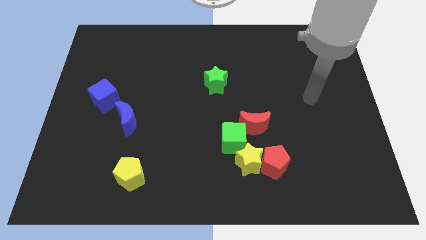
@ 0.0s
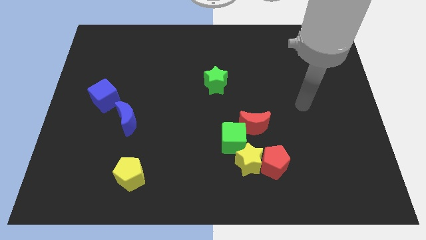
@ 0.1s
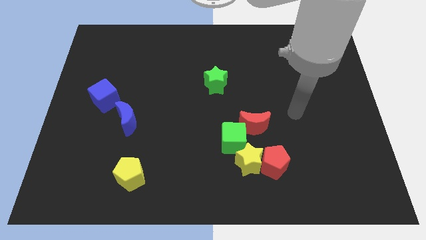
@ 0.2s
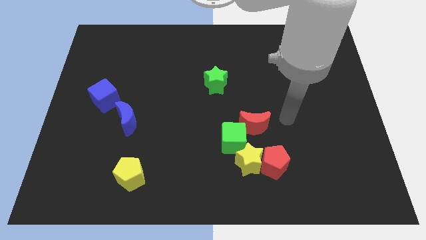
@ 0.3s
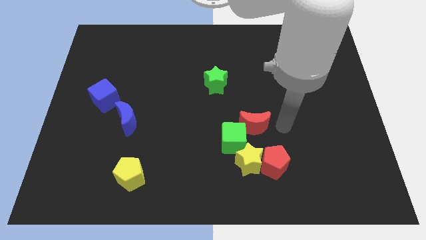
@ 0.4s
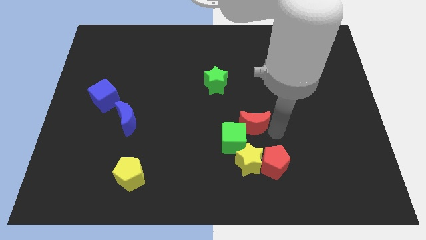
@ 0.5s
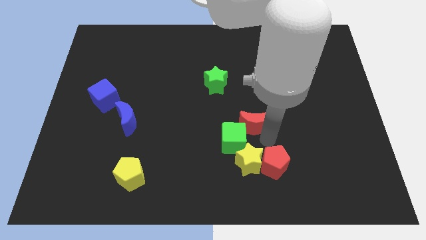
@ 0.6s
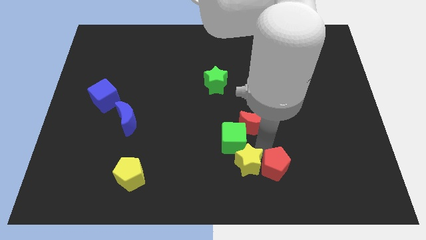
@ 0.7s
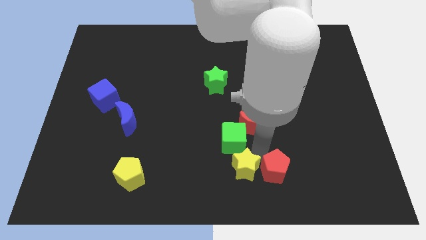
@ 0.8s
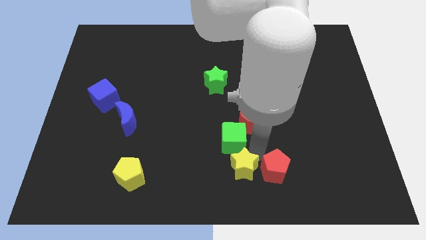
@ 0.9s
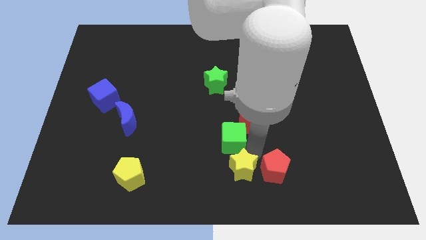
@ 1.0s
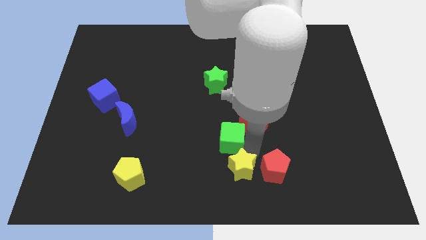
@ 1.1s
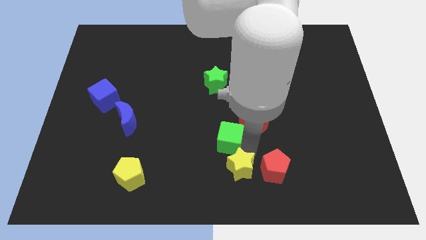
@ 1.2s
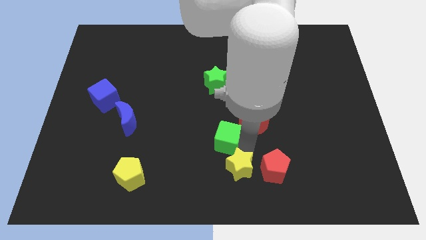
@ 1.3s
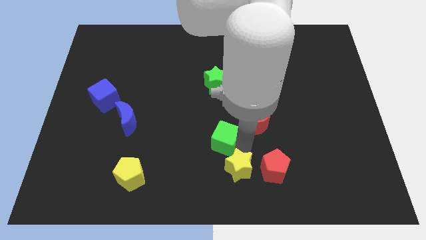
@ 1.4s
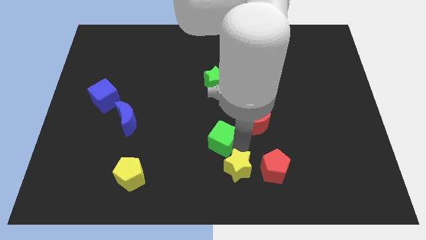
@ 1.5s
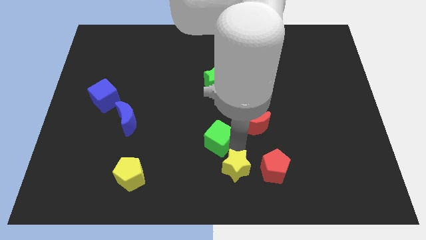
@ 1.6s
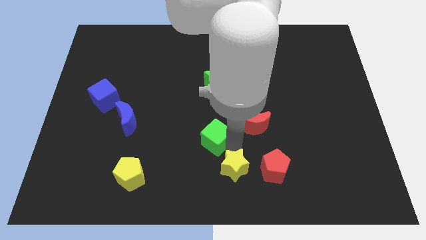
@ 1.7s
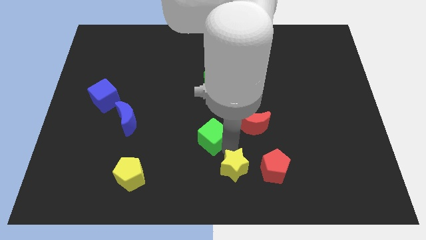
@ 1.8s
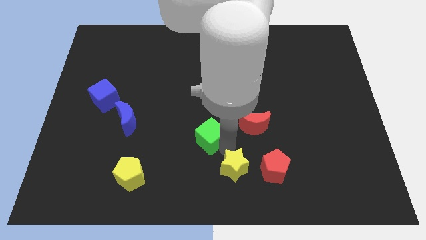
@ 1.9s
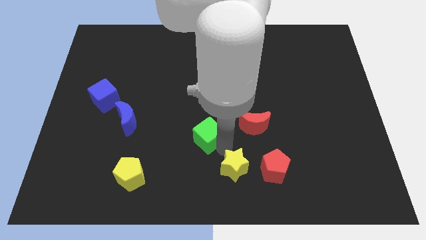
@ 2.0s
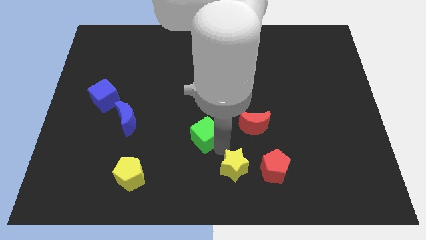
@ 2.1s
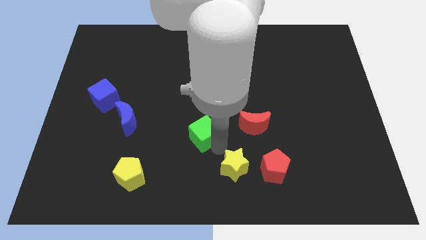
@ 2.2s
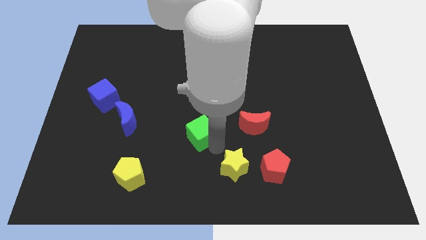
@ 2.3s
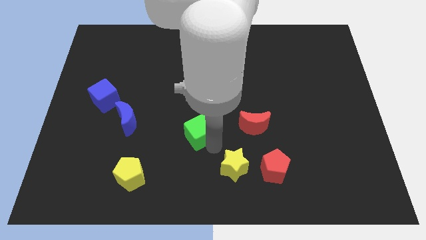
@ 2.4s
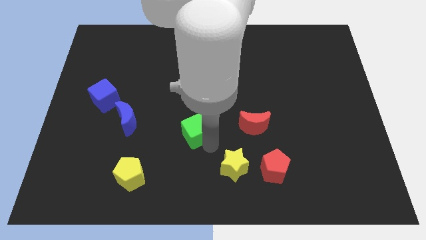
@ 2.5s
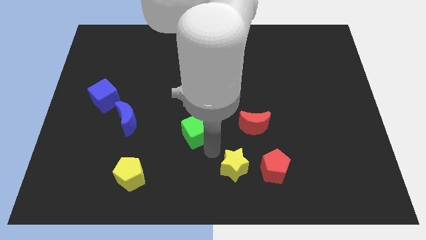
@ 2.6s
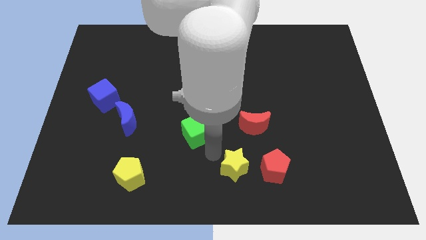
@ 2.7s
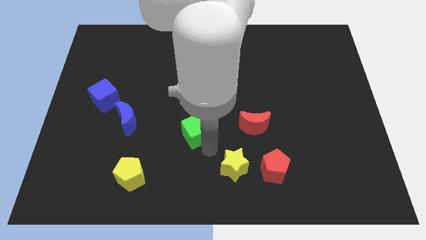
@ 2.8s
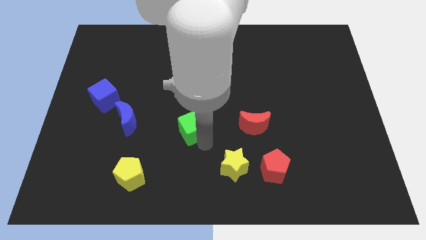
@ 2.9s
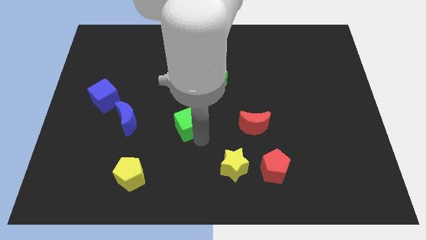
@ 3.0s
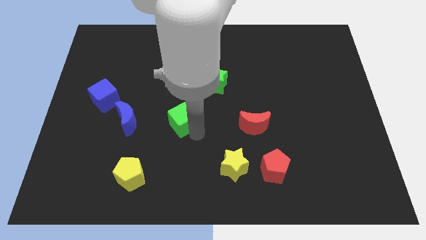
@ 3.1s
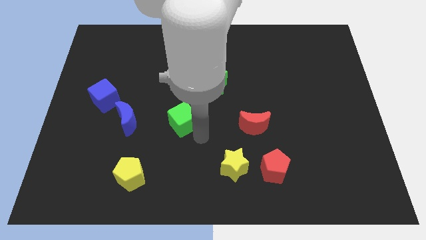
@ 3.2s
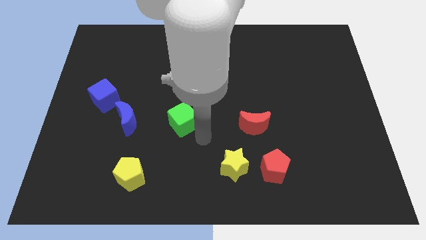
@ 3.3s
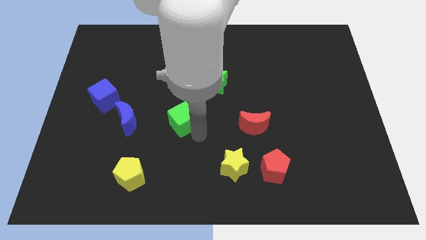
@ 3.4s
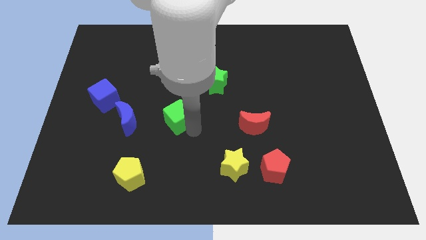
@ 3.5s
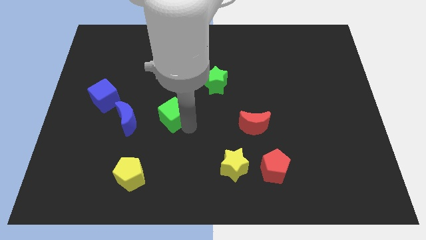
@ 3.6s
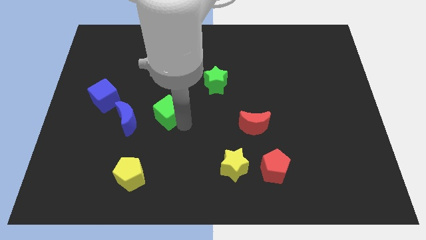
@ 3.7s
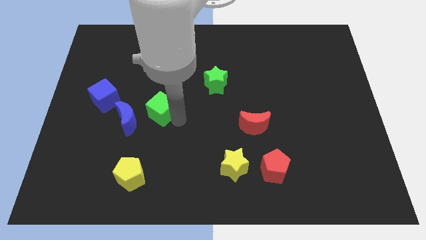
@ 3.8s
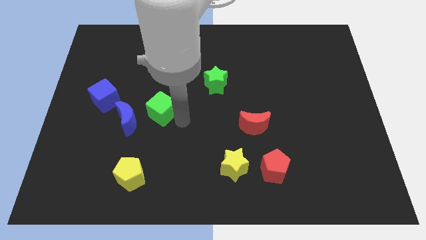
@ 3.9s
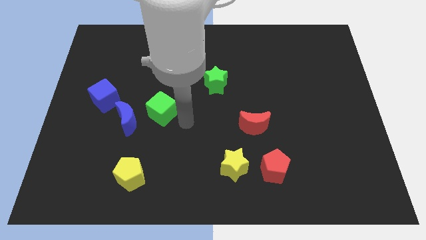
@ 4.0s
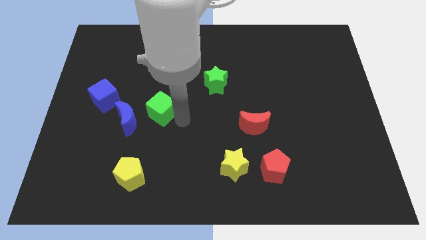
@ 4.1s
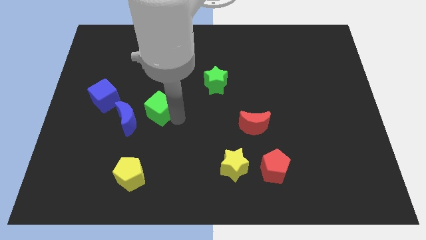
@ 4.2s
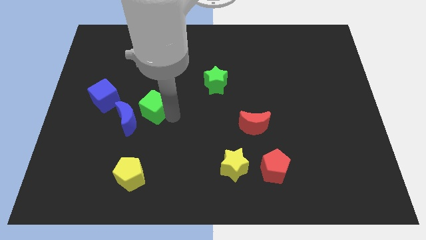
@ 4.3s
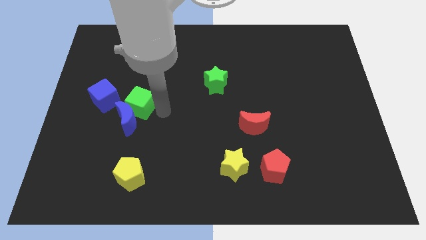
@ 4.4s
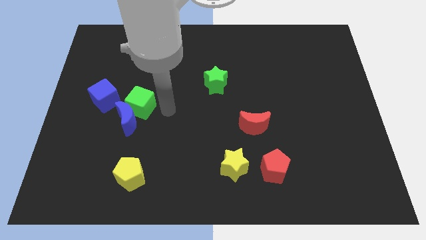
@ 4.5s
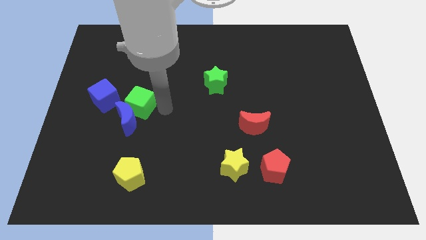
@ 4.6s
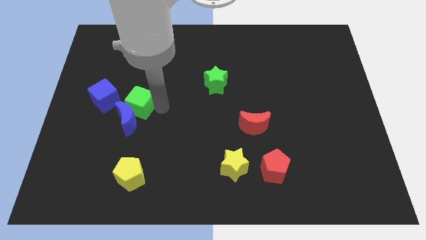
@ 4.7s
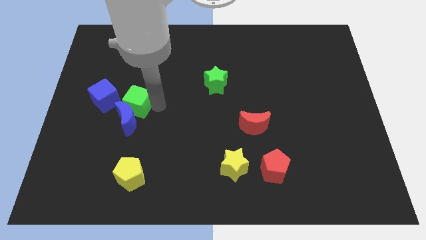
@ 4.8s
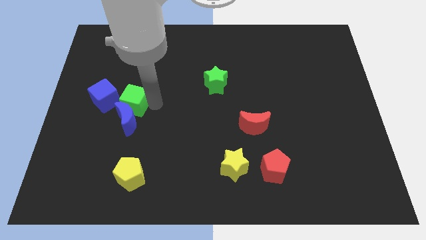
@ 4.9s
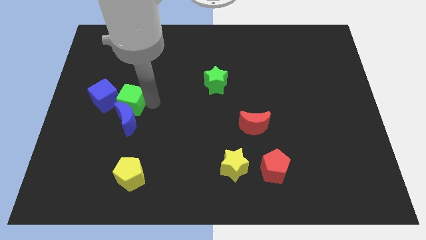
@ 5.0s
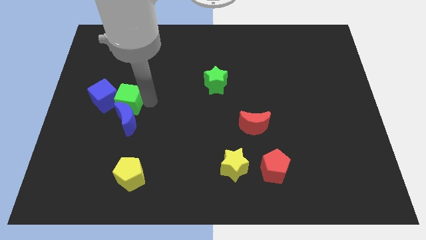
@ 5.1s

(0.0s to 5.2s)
slide the green cube to the blue cube

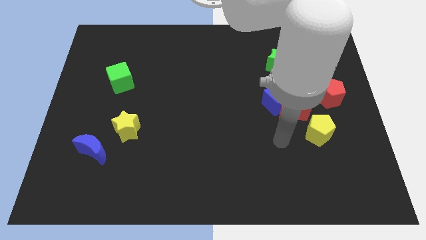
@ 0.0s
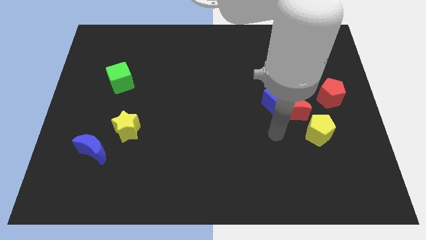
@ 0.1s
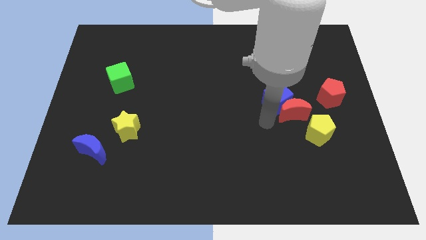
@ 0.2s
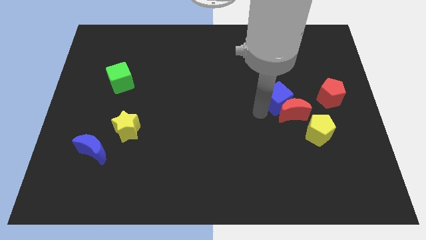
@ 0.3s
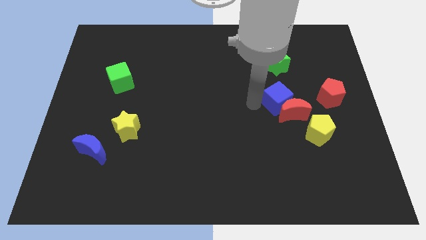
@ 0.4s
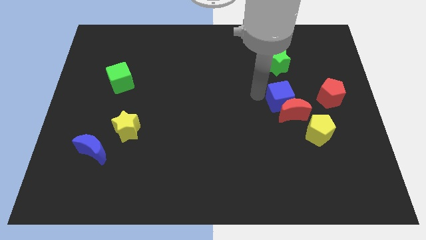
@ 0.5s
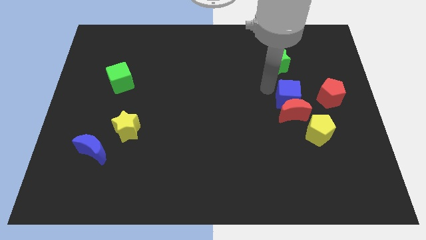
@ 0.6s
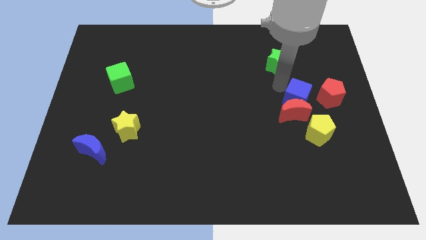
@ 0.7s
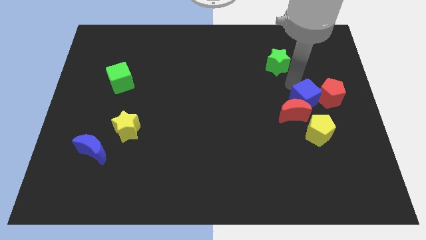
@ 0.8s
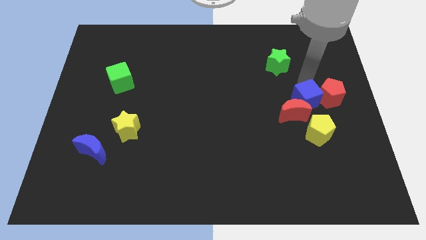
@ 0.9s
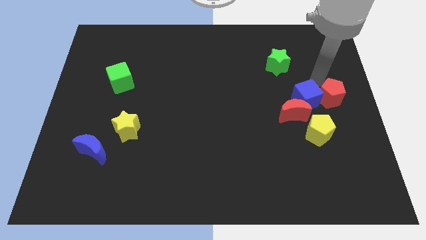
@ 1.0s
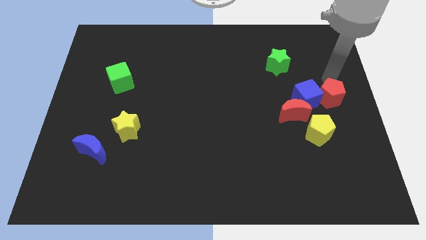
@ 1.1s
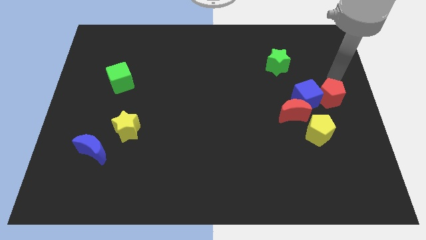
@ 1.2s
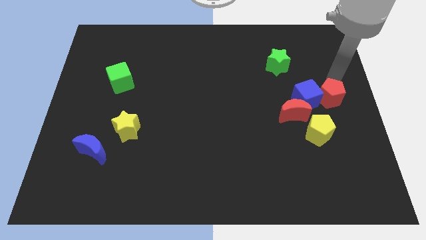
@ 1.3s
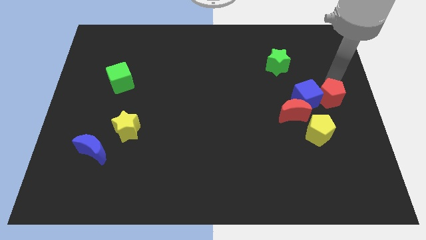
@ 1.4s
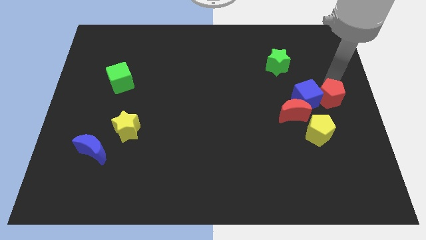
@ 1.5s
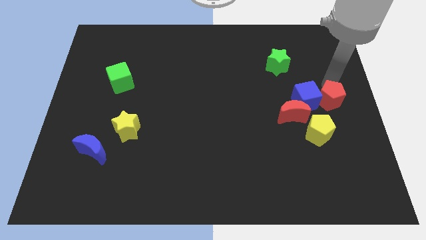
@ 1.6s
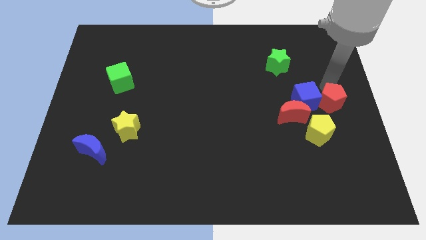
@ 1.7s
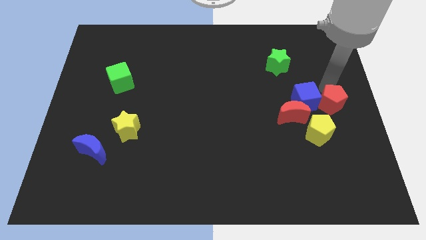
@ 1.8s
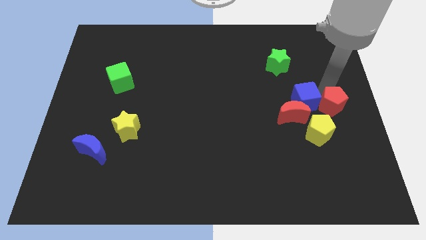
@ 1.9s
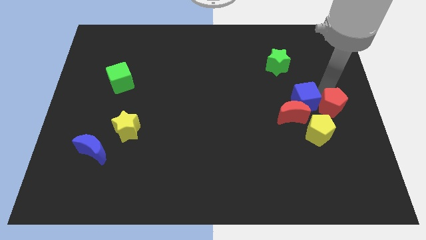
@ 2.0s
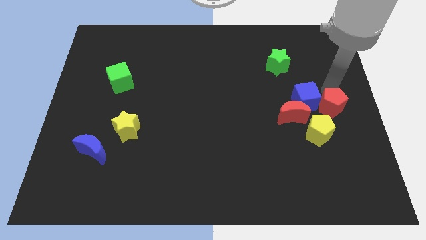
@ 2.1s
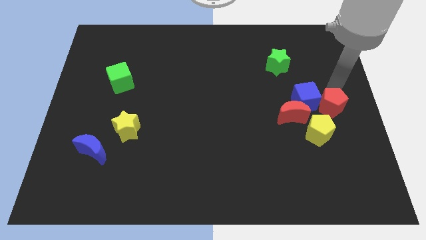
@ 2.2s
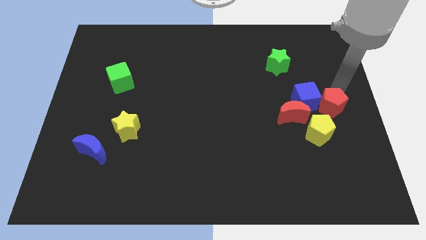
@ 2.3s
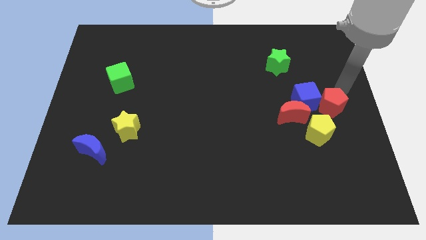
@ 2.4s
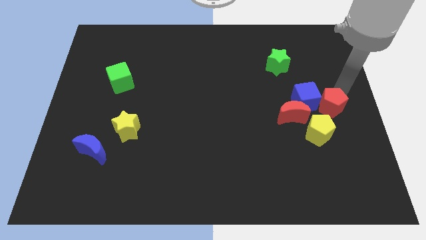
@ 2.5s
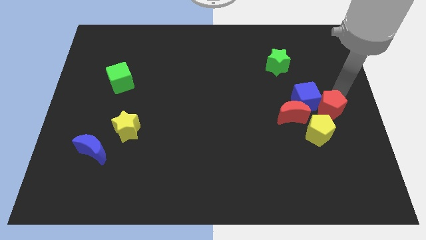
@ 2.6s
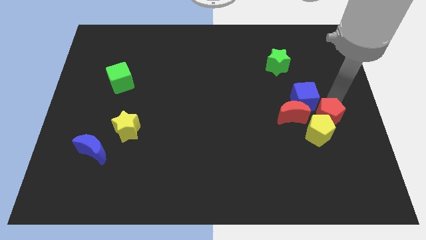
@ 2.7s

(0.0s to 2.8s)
slide the red pentagon next to the yellow pentagon
